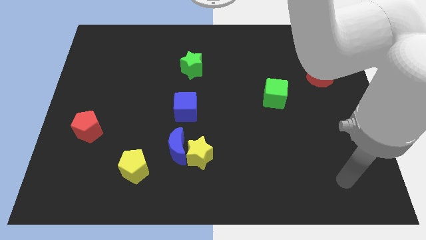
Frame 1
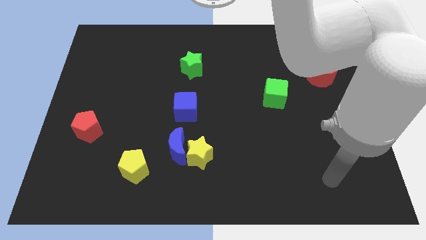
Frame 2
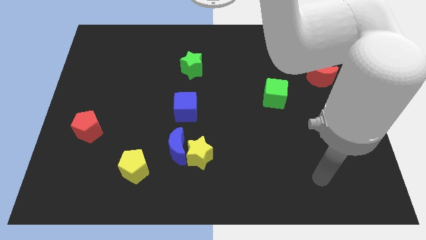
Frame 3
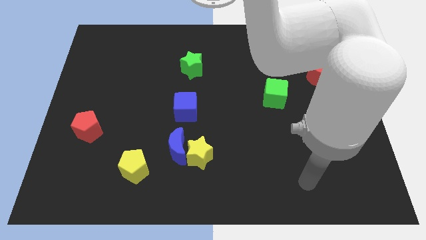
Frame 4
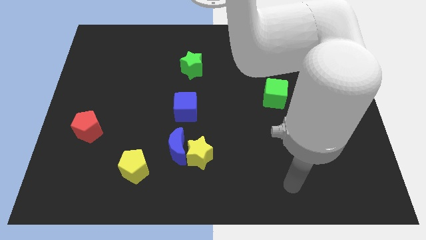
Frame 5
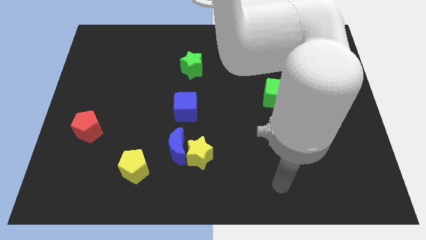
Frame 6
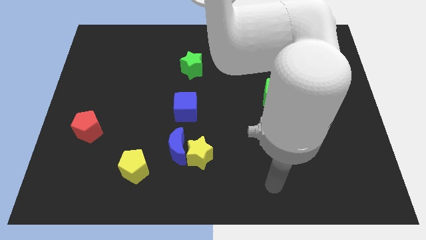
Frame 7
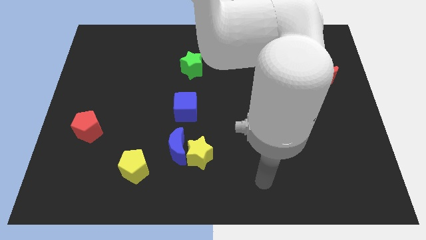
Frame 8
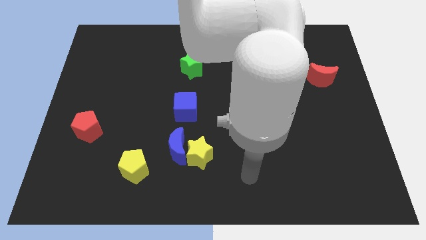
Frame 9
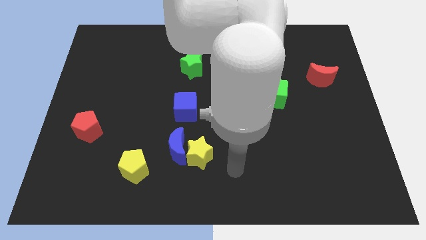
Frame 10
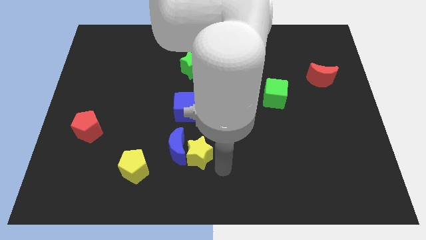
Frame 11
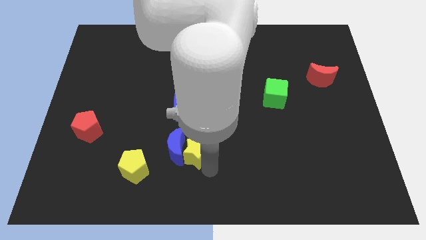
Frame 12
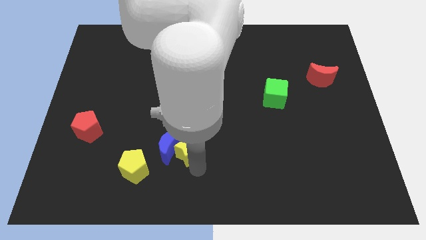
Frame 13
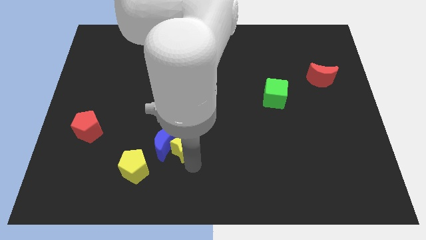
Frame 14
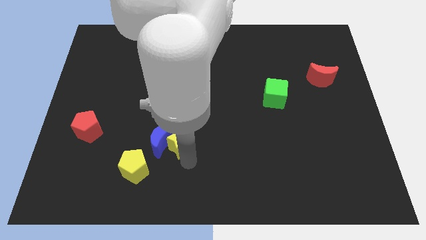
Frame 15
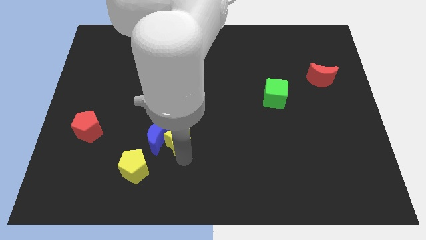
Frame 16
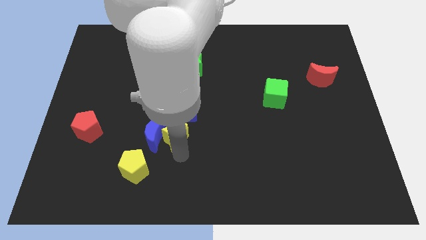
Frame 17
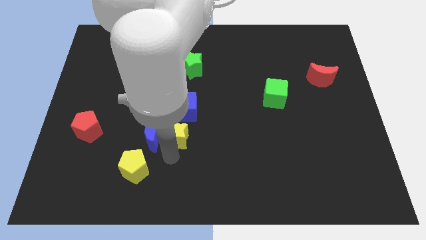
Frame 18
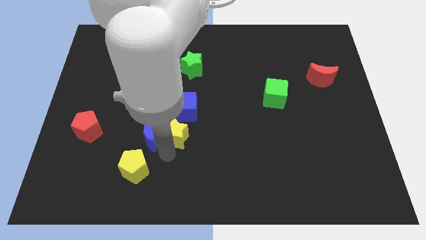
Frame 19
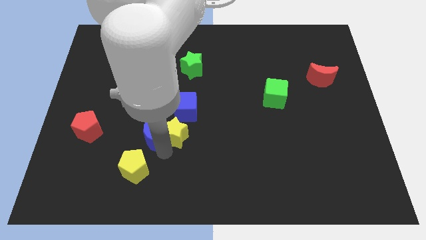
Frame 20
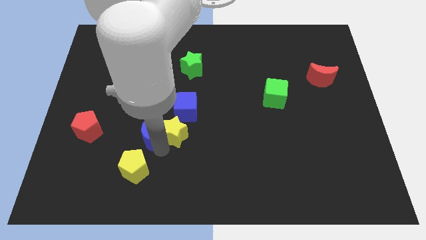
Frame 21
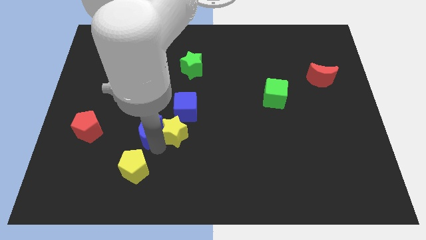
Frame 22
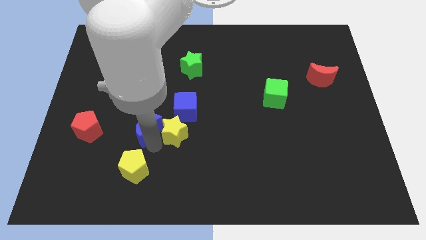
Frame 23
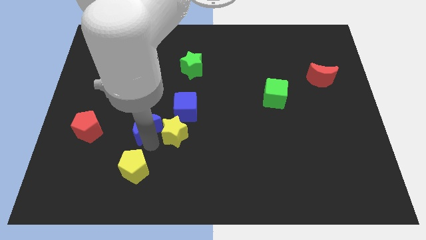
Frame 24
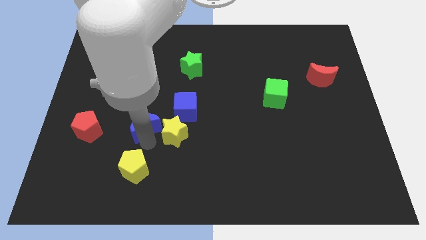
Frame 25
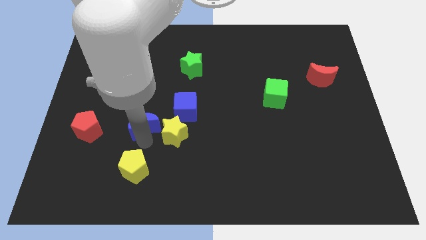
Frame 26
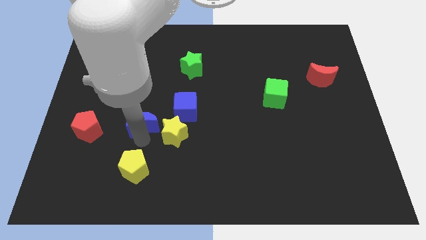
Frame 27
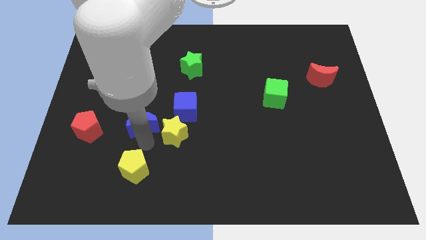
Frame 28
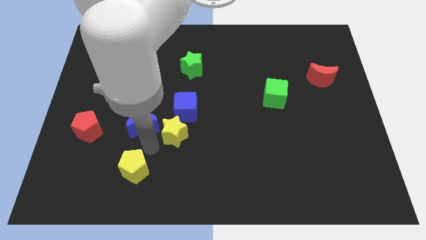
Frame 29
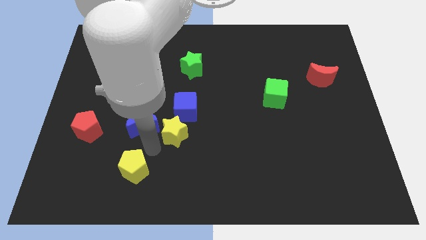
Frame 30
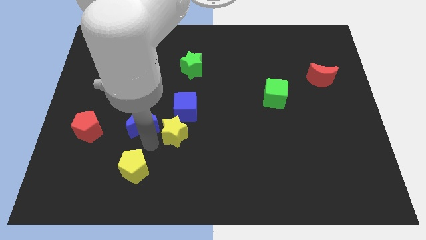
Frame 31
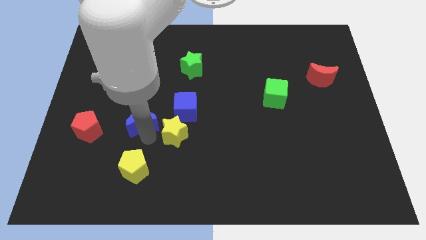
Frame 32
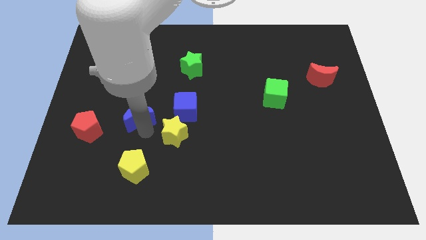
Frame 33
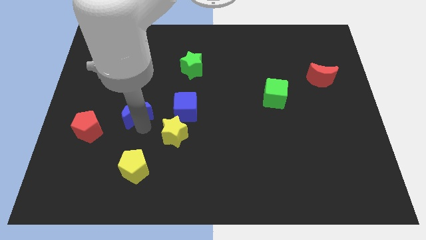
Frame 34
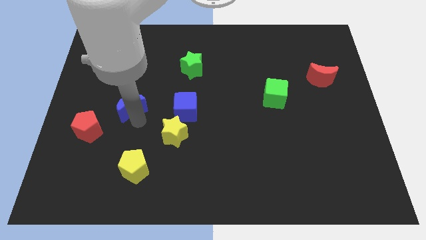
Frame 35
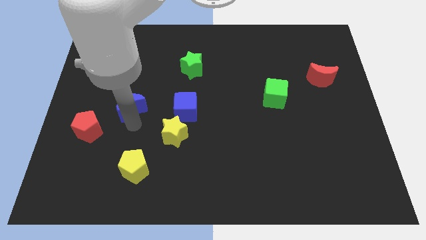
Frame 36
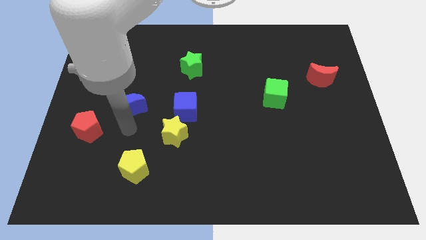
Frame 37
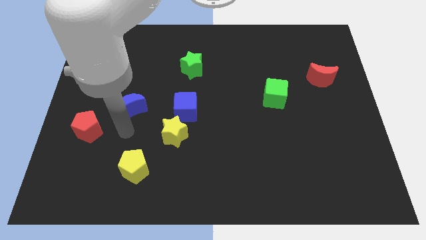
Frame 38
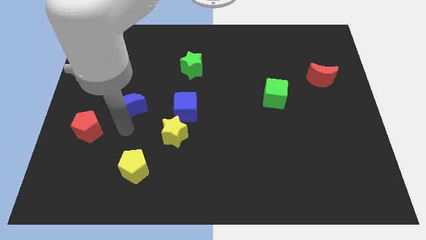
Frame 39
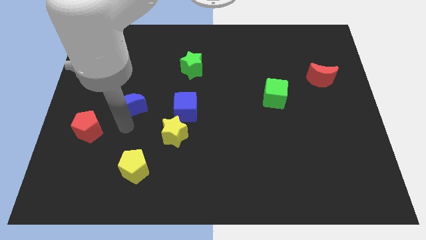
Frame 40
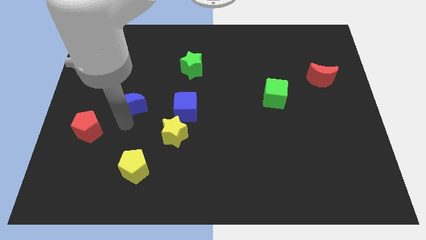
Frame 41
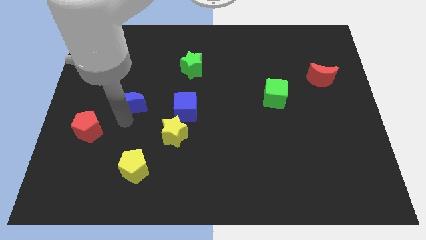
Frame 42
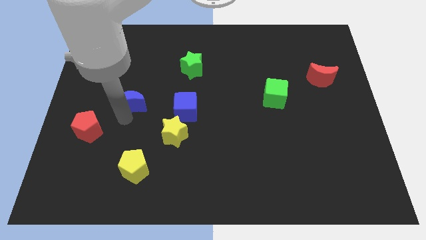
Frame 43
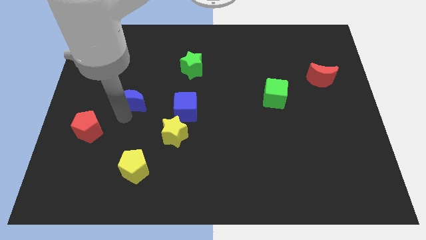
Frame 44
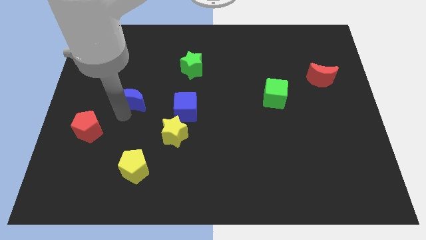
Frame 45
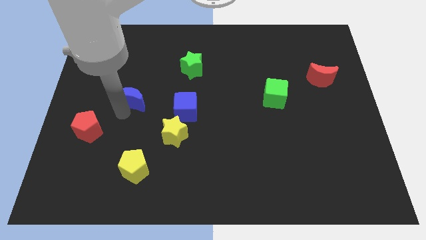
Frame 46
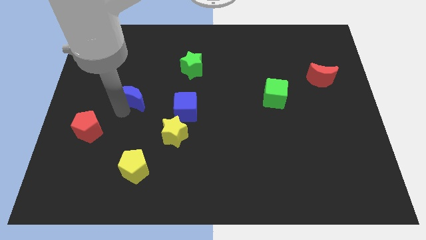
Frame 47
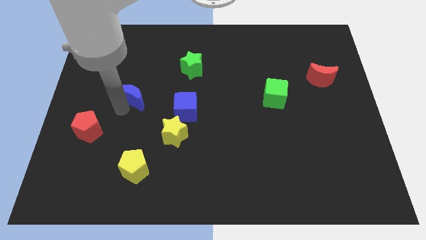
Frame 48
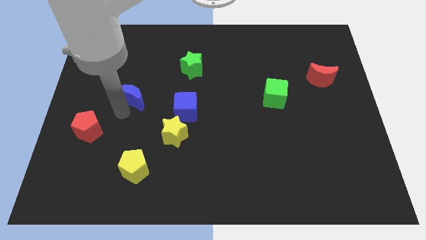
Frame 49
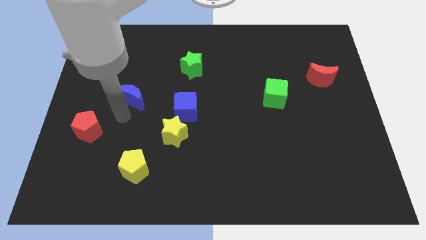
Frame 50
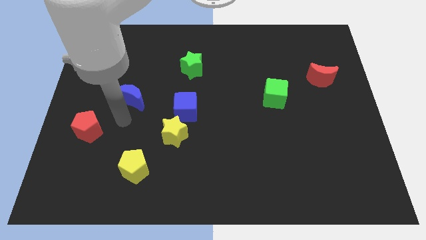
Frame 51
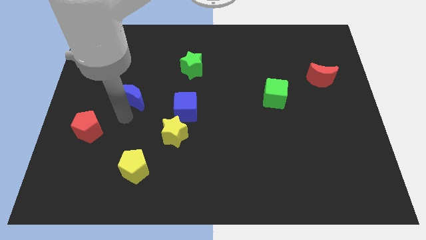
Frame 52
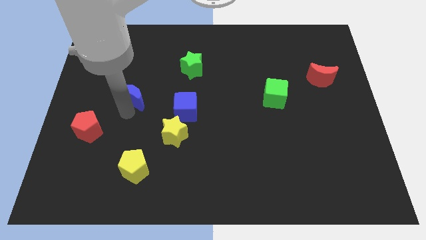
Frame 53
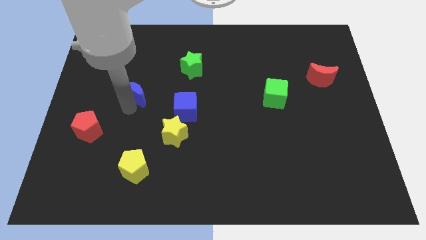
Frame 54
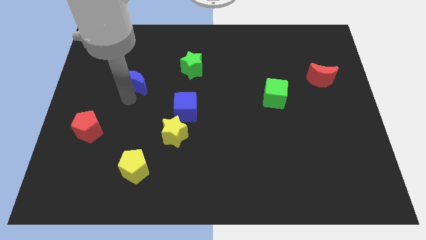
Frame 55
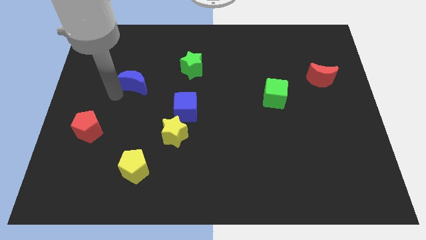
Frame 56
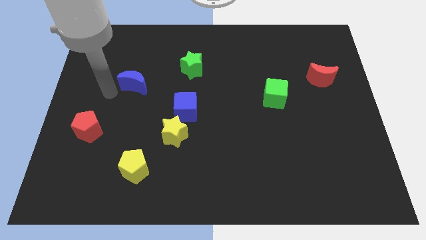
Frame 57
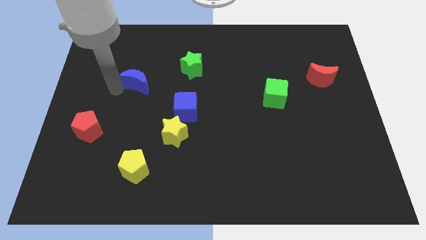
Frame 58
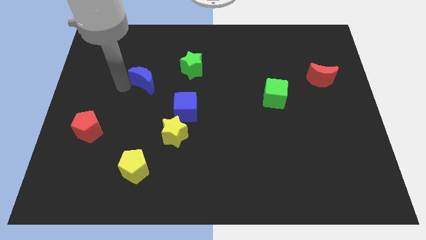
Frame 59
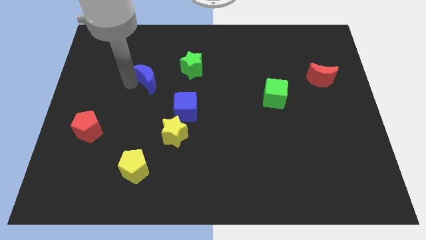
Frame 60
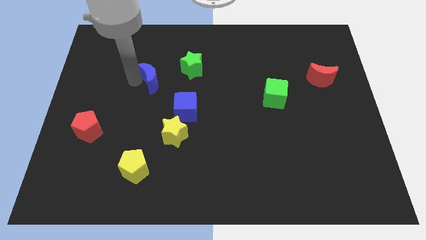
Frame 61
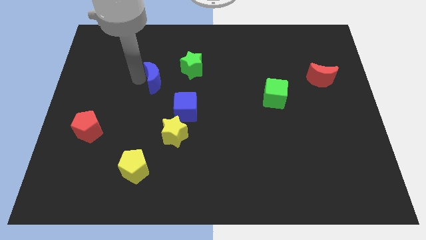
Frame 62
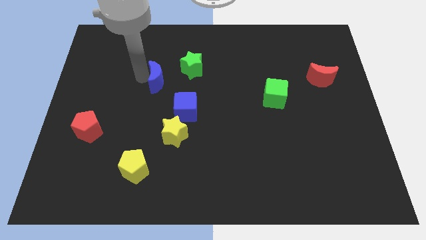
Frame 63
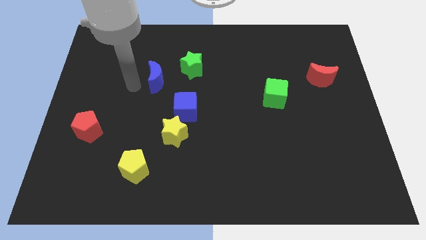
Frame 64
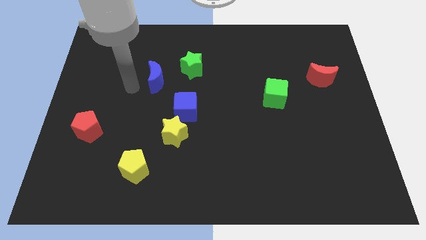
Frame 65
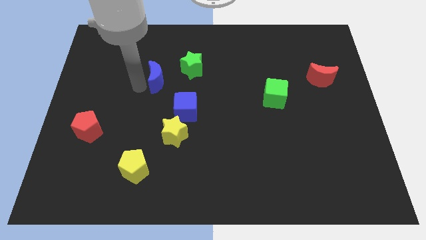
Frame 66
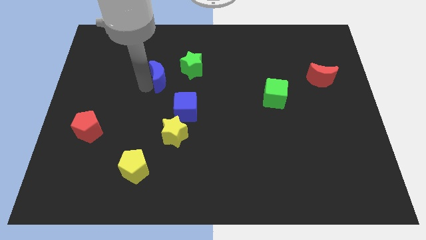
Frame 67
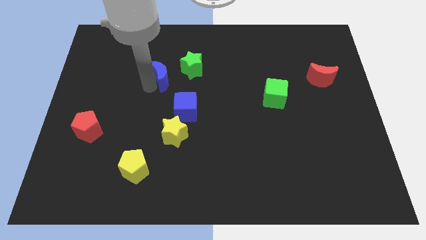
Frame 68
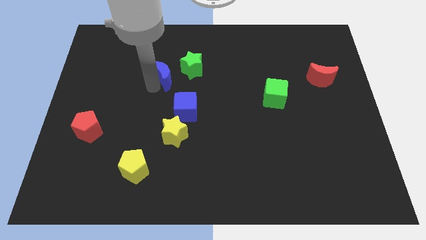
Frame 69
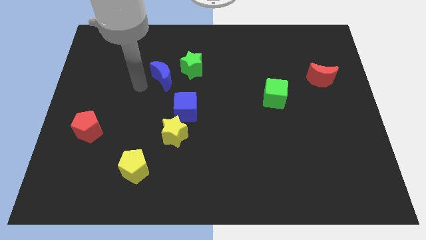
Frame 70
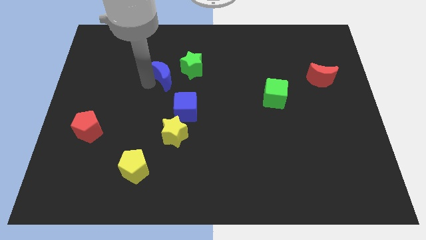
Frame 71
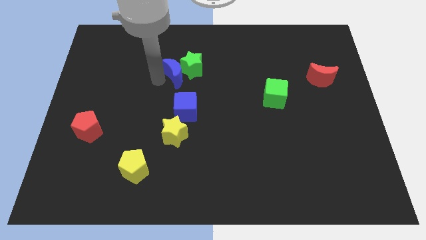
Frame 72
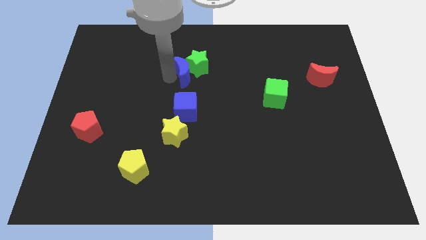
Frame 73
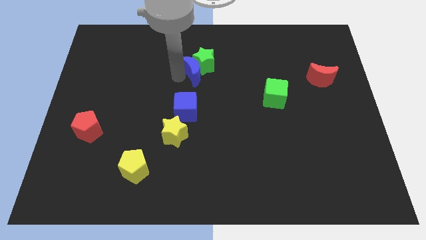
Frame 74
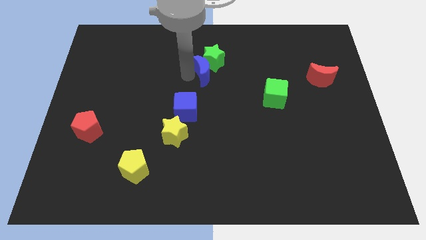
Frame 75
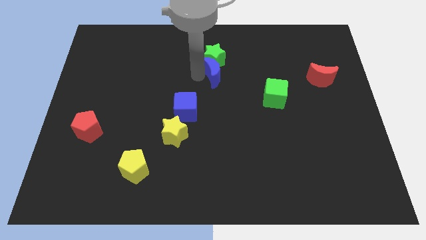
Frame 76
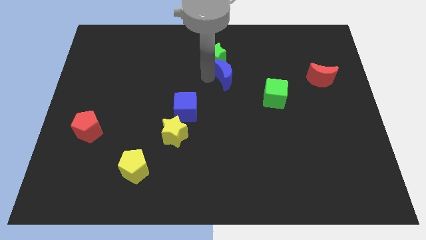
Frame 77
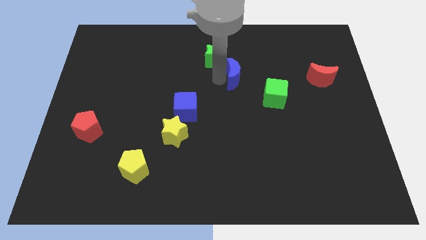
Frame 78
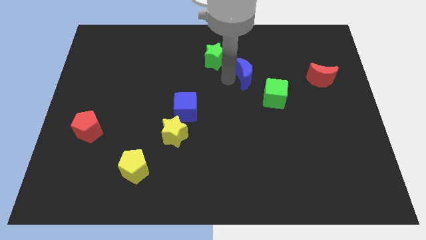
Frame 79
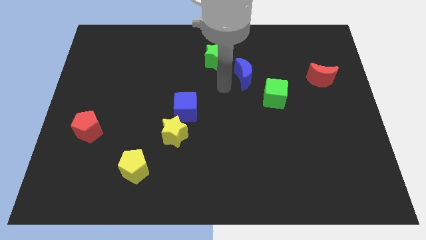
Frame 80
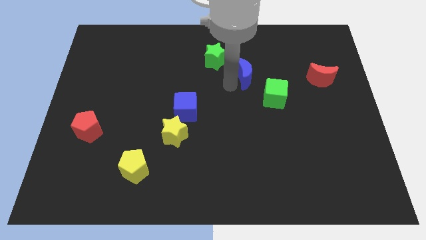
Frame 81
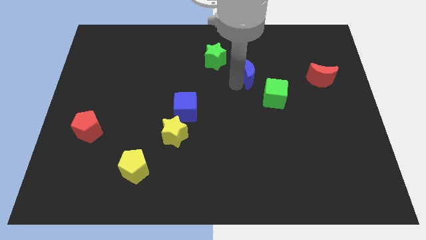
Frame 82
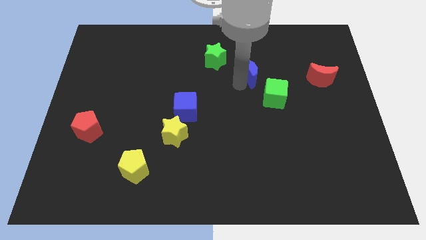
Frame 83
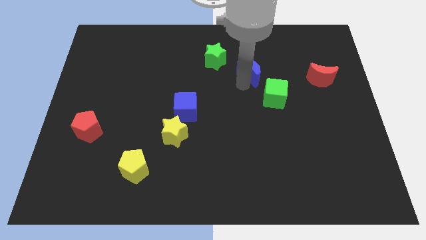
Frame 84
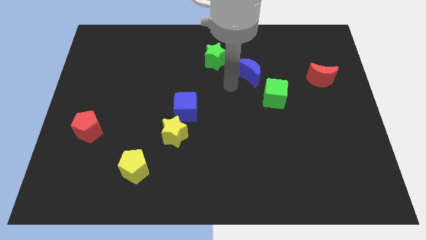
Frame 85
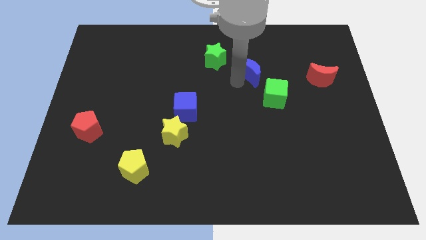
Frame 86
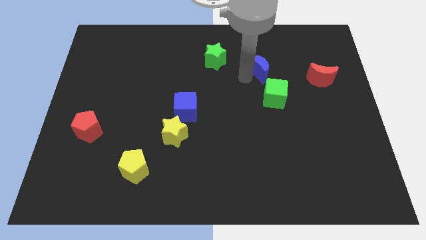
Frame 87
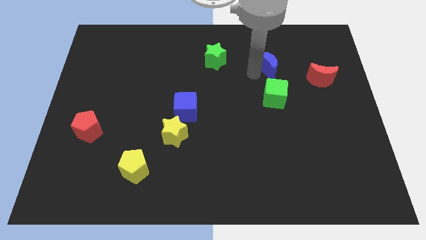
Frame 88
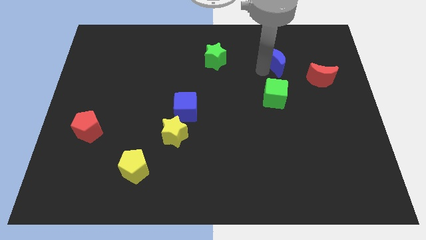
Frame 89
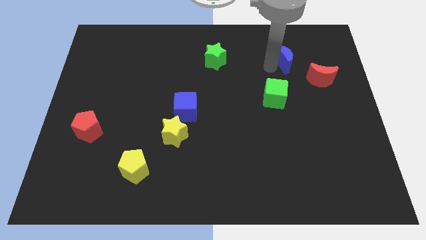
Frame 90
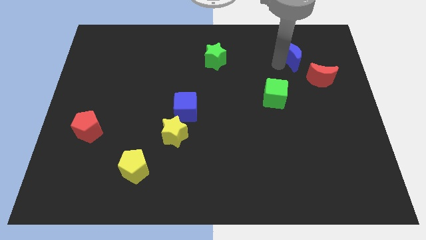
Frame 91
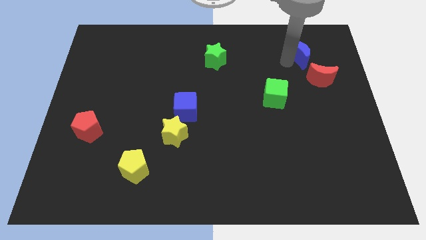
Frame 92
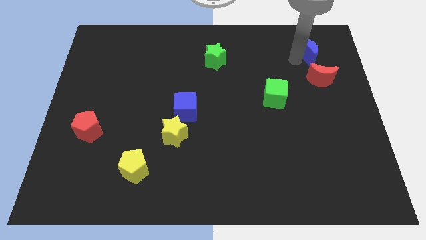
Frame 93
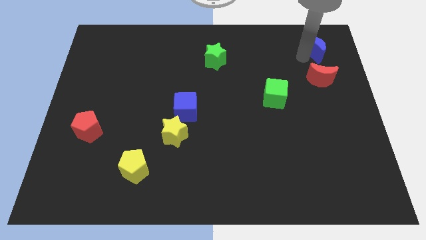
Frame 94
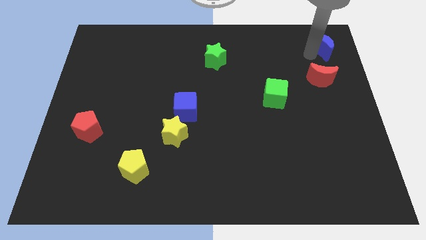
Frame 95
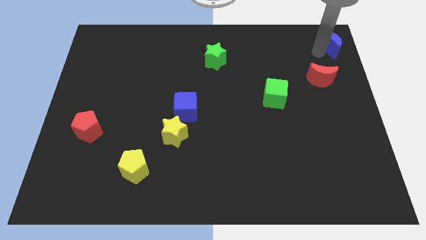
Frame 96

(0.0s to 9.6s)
slide the blue moon to the top right corner
